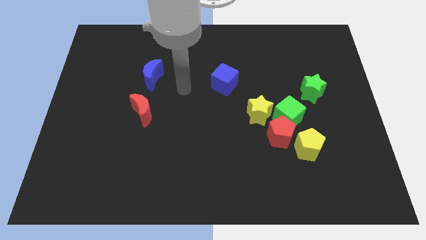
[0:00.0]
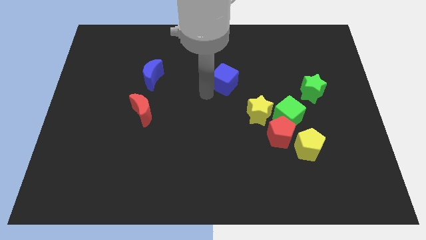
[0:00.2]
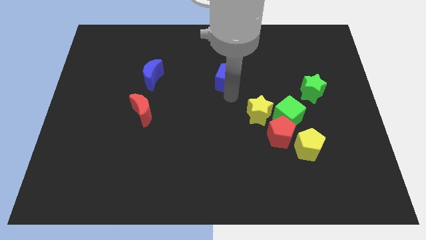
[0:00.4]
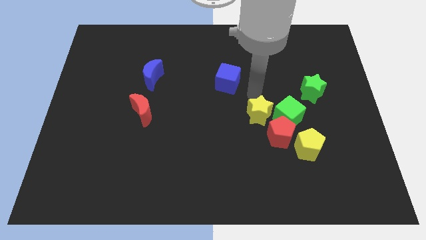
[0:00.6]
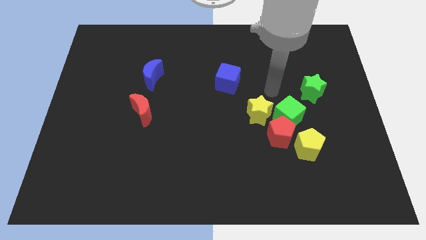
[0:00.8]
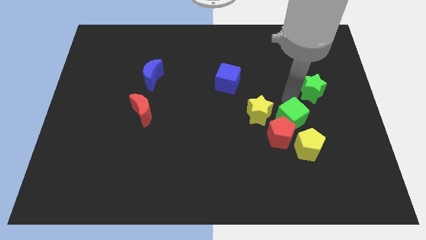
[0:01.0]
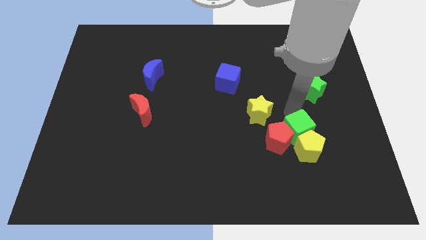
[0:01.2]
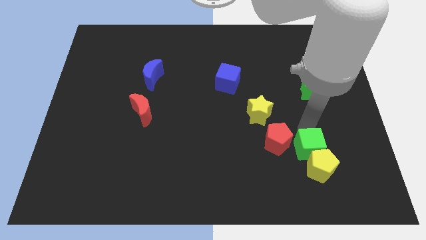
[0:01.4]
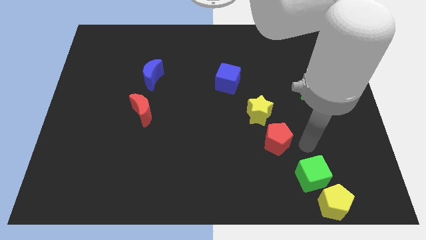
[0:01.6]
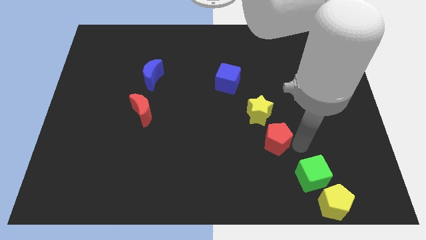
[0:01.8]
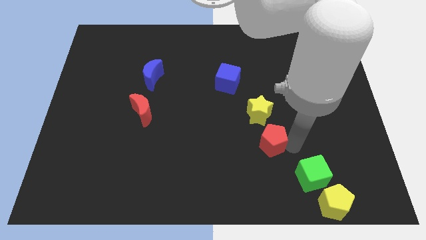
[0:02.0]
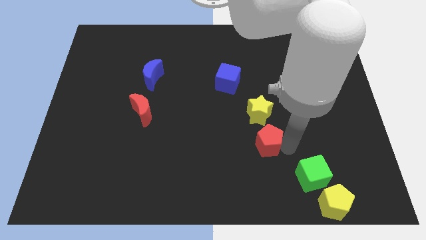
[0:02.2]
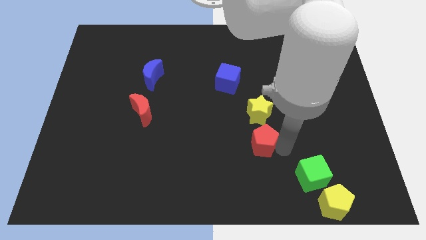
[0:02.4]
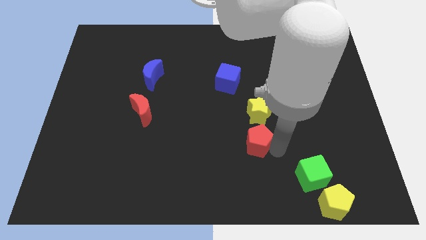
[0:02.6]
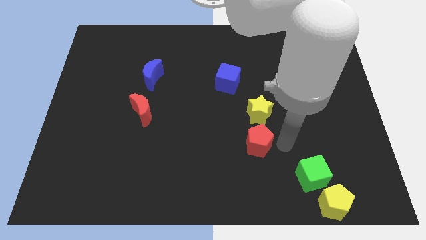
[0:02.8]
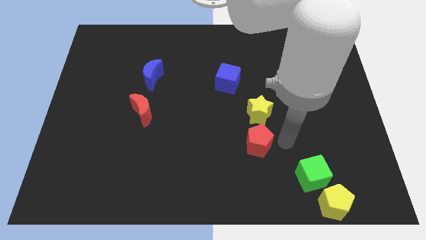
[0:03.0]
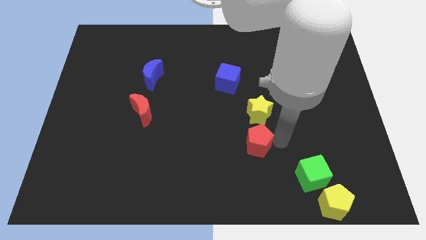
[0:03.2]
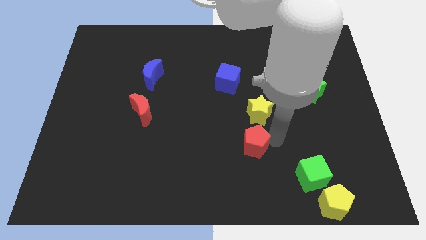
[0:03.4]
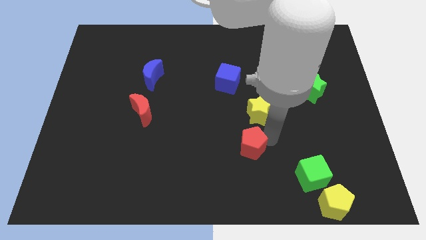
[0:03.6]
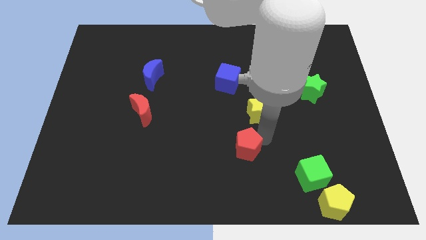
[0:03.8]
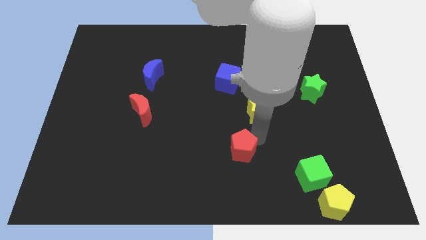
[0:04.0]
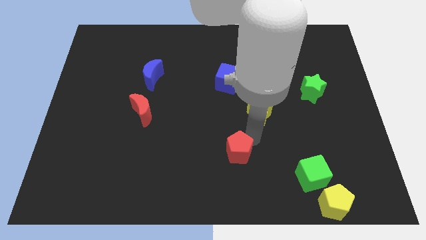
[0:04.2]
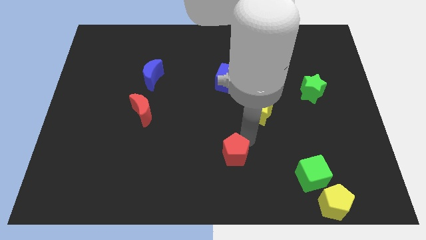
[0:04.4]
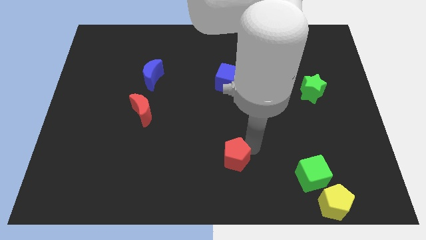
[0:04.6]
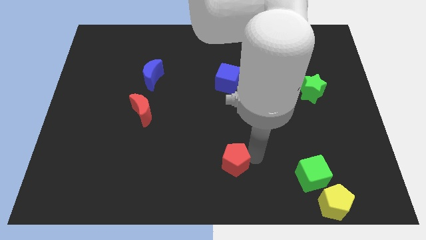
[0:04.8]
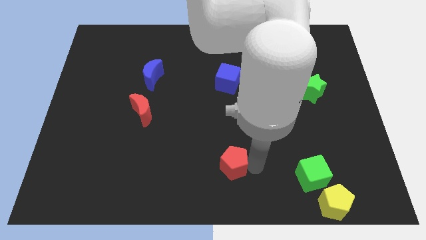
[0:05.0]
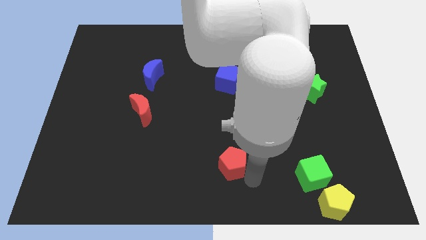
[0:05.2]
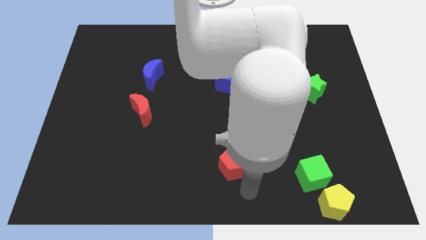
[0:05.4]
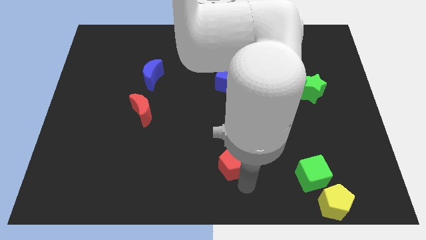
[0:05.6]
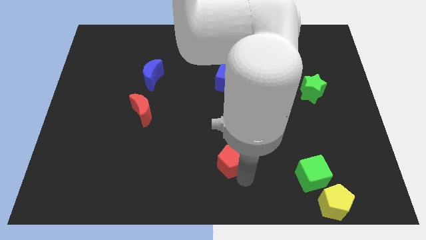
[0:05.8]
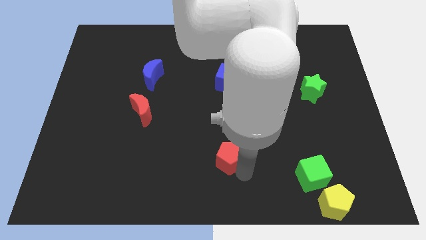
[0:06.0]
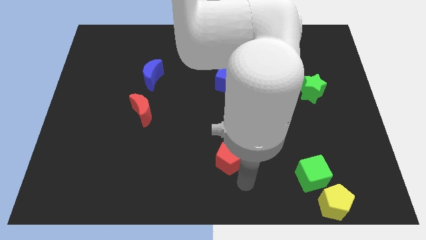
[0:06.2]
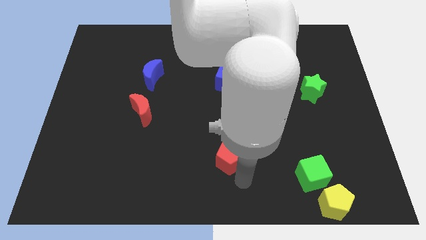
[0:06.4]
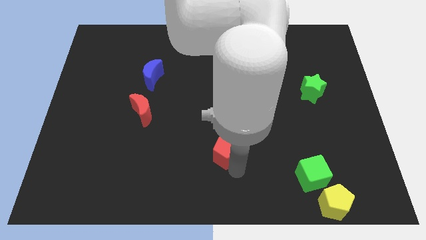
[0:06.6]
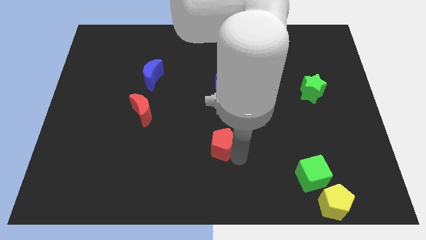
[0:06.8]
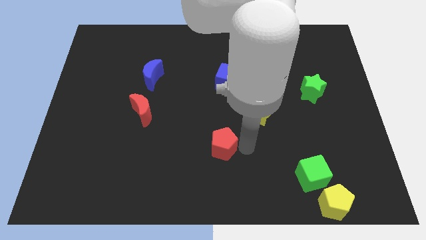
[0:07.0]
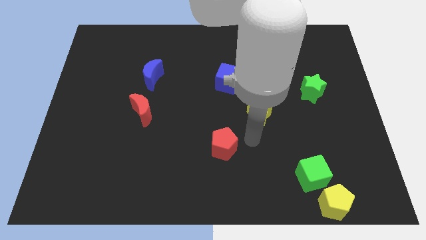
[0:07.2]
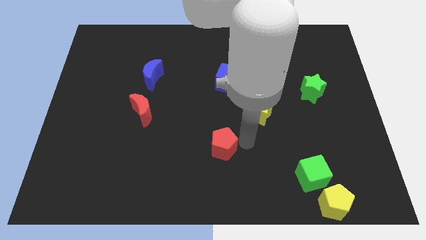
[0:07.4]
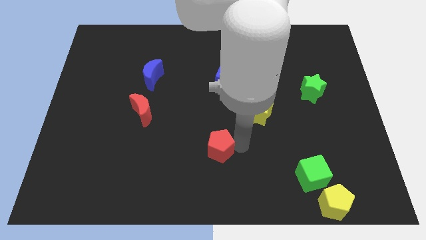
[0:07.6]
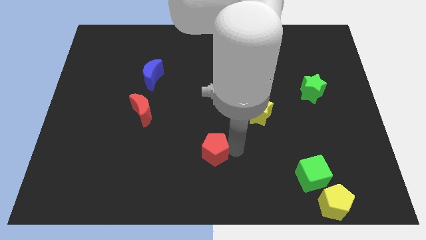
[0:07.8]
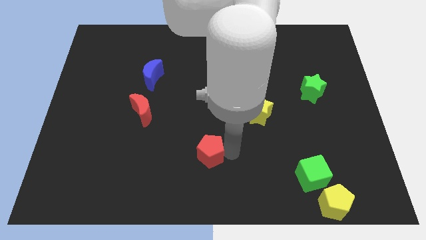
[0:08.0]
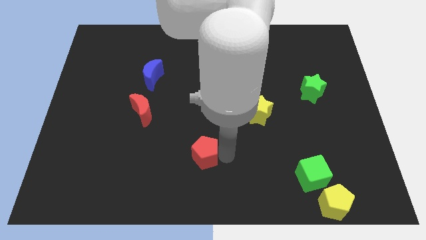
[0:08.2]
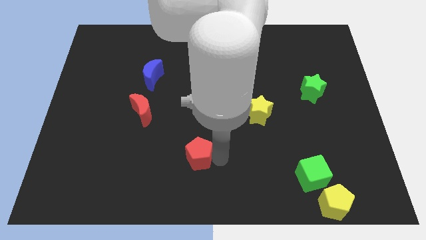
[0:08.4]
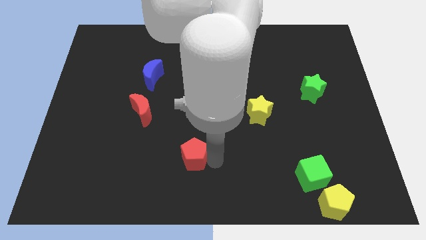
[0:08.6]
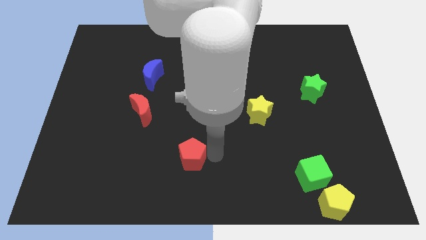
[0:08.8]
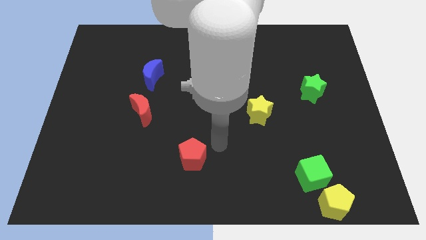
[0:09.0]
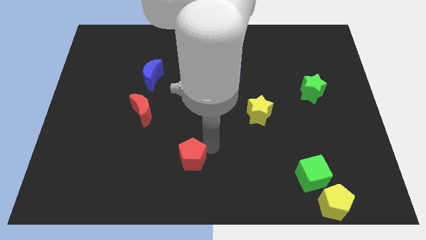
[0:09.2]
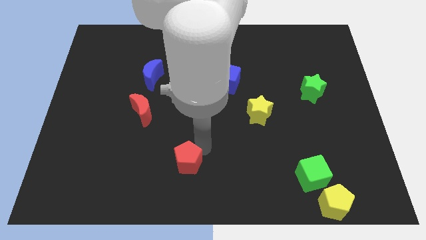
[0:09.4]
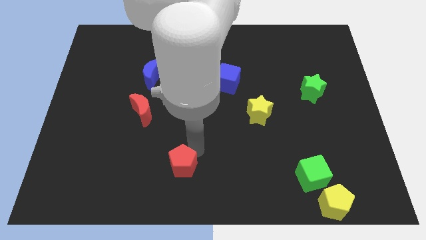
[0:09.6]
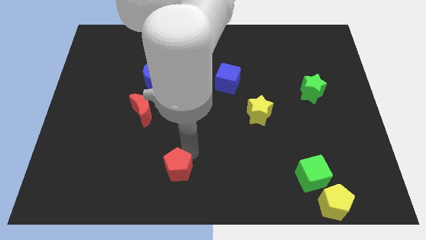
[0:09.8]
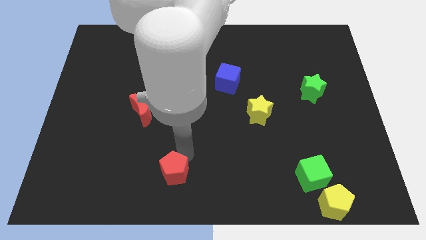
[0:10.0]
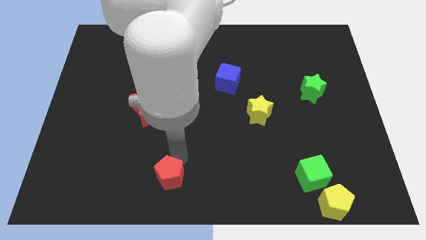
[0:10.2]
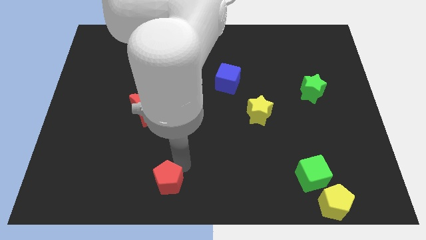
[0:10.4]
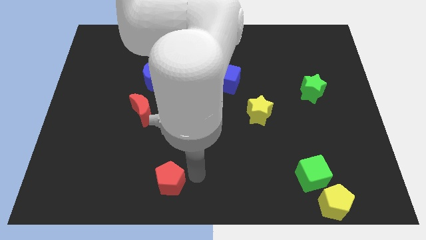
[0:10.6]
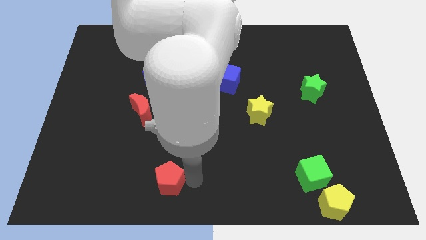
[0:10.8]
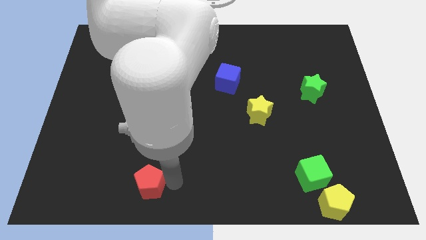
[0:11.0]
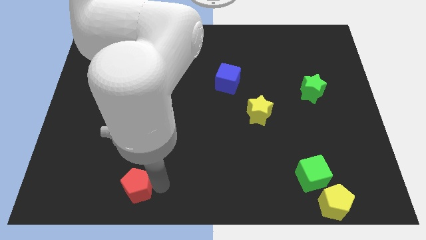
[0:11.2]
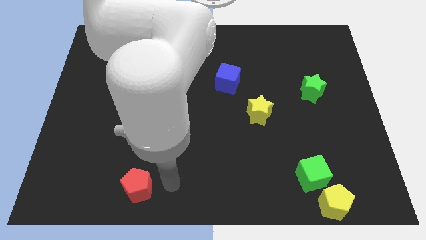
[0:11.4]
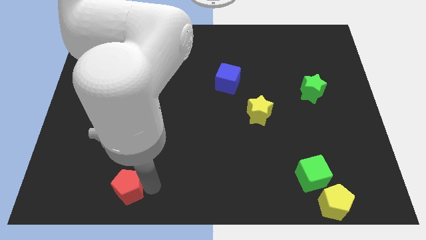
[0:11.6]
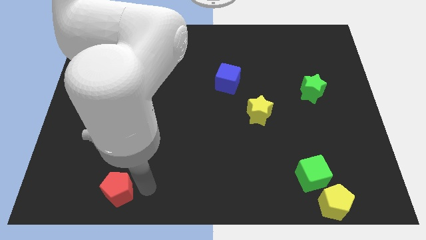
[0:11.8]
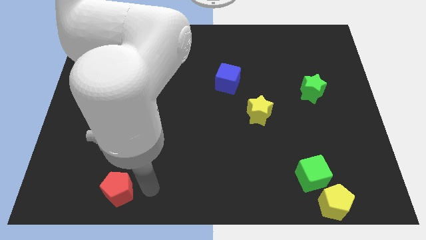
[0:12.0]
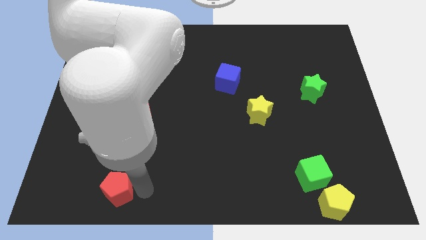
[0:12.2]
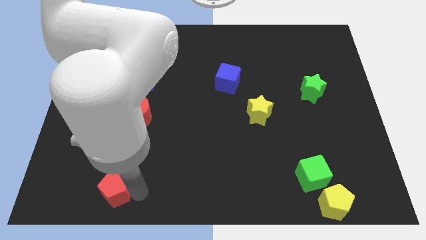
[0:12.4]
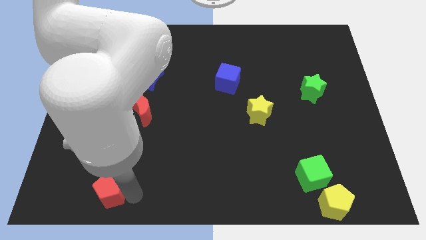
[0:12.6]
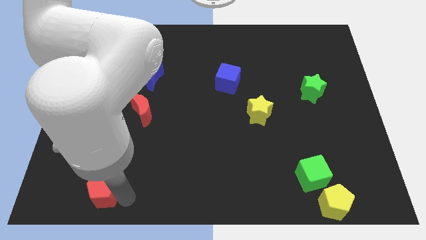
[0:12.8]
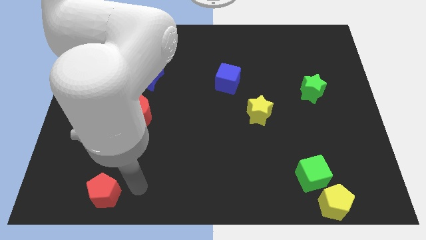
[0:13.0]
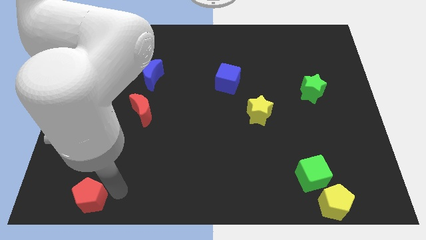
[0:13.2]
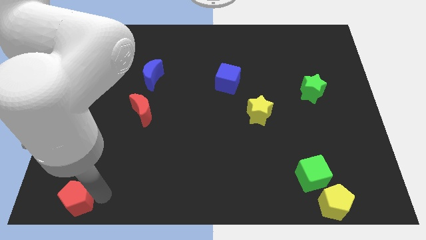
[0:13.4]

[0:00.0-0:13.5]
slide the red pentagon to the bottom left of the board

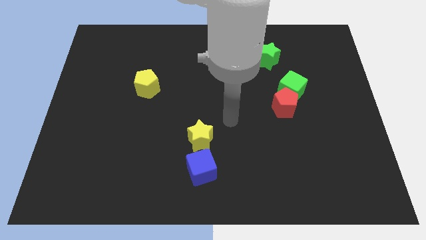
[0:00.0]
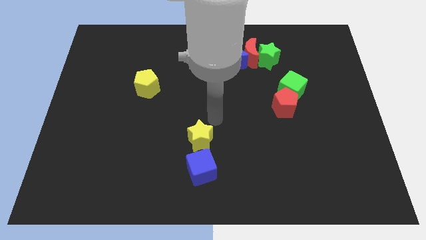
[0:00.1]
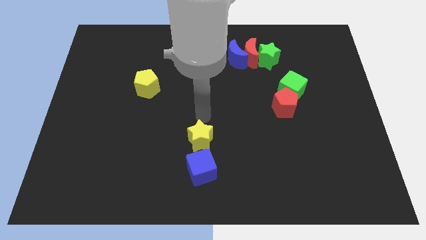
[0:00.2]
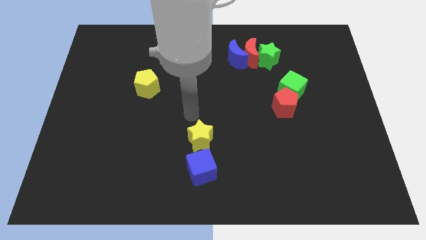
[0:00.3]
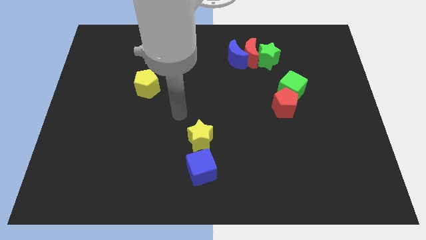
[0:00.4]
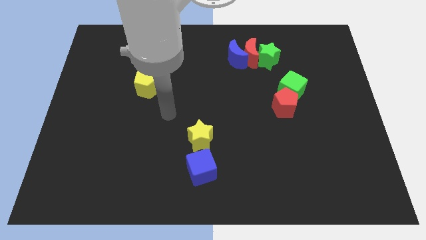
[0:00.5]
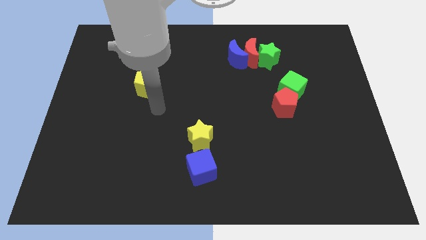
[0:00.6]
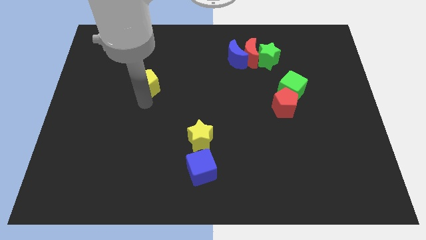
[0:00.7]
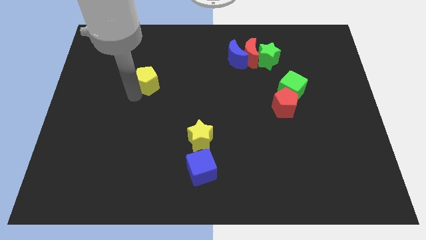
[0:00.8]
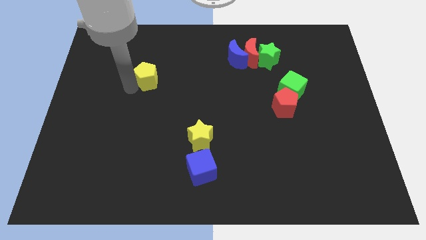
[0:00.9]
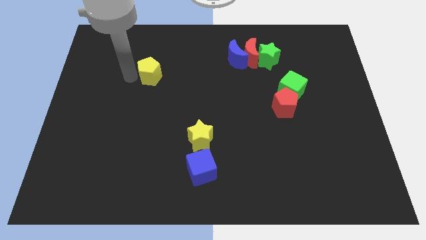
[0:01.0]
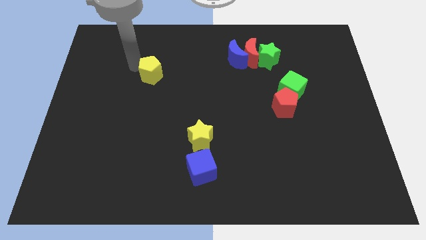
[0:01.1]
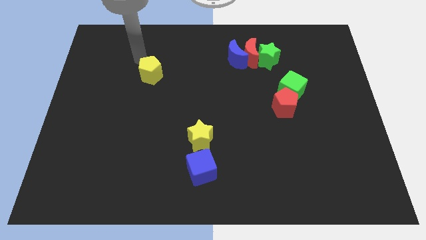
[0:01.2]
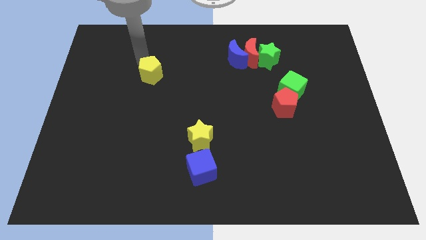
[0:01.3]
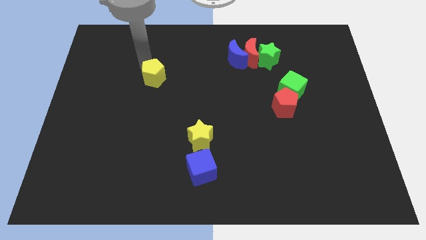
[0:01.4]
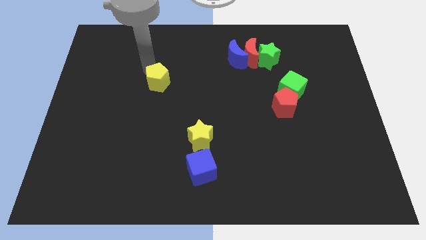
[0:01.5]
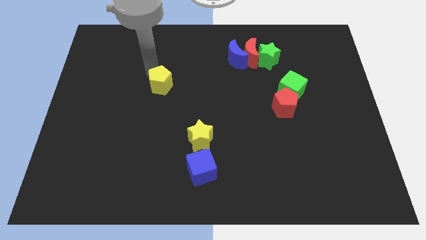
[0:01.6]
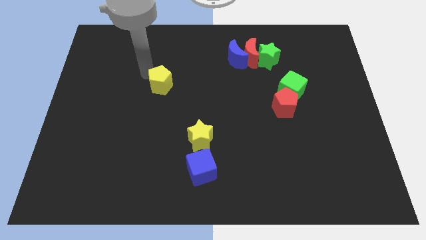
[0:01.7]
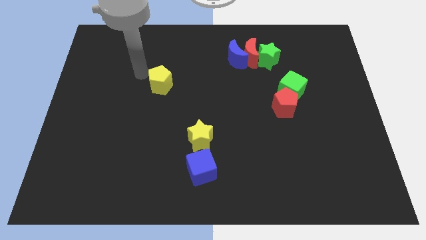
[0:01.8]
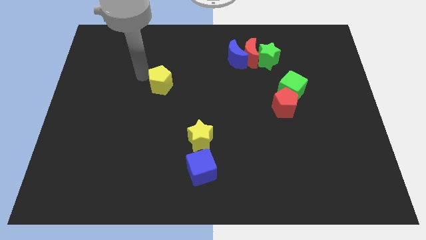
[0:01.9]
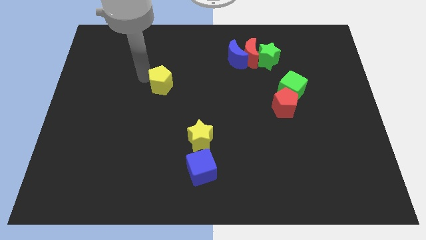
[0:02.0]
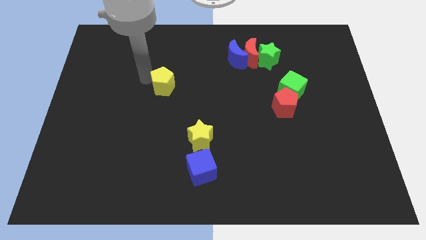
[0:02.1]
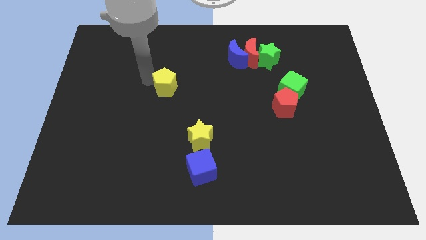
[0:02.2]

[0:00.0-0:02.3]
put the yellow pentagon to the center of the board
